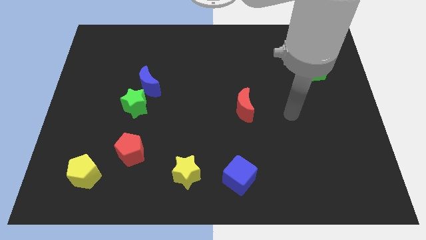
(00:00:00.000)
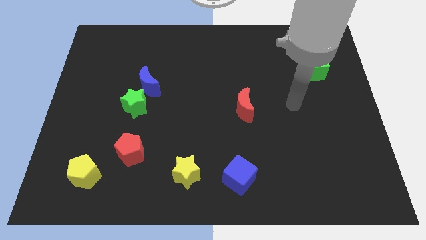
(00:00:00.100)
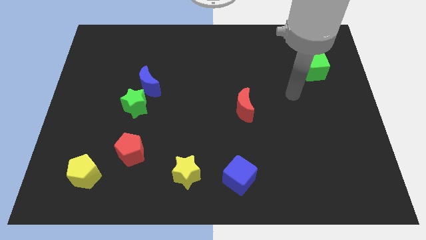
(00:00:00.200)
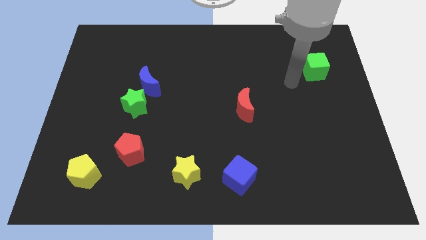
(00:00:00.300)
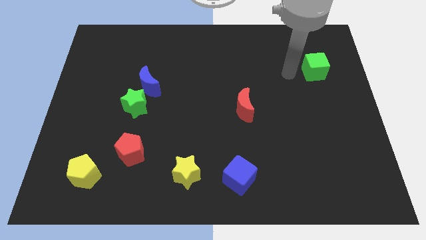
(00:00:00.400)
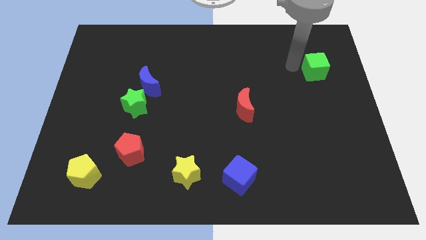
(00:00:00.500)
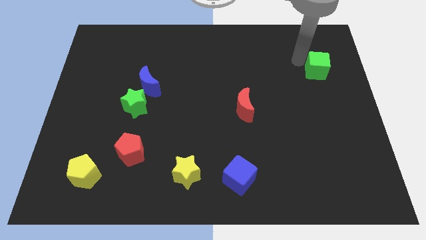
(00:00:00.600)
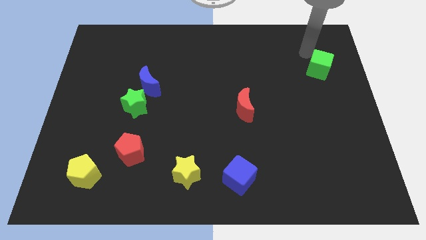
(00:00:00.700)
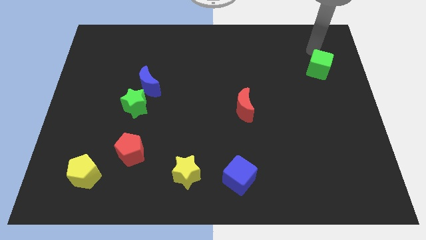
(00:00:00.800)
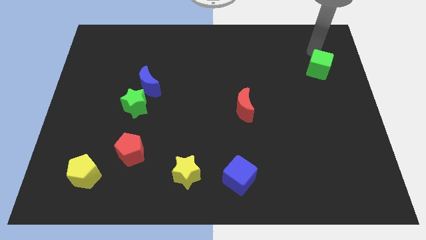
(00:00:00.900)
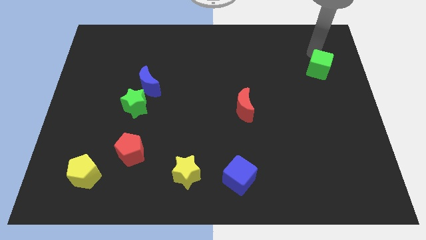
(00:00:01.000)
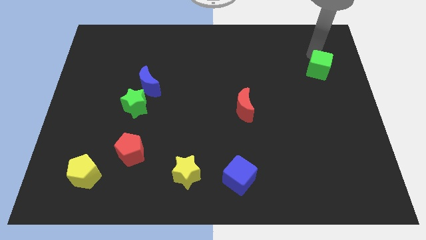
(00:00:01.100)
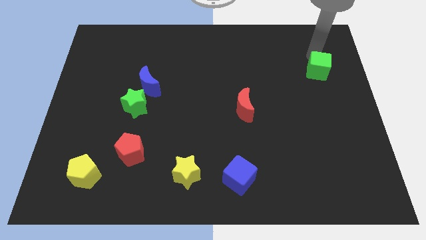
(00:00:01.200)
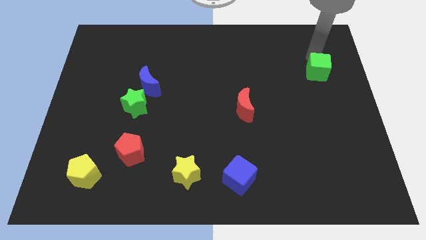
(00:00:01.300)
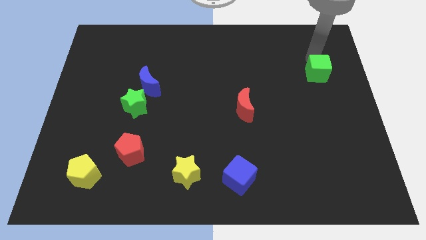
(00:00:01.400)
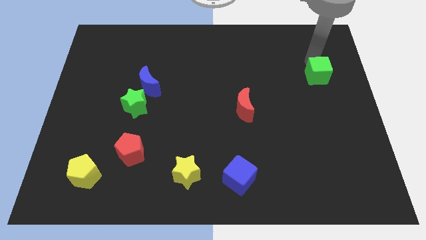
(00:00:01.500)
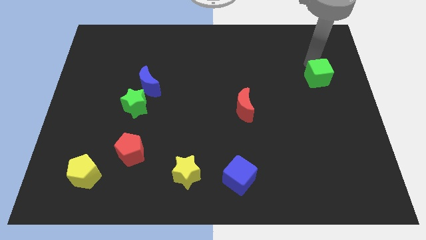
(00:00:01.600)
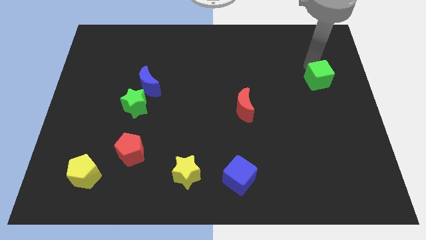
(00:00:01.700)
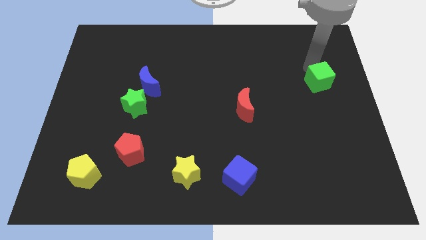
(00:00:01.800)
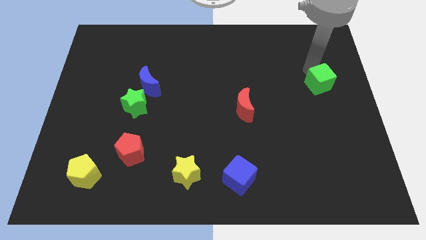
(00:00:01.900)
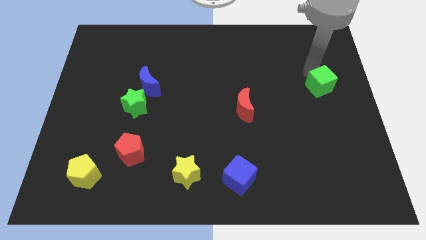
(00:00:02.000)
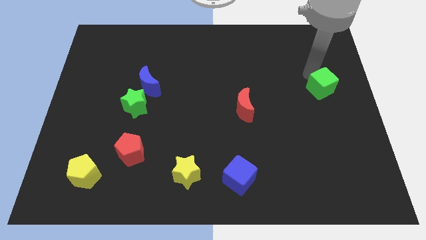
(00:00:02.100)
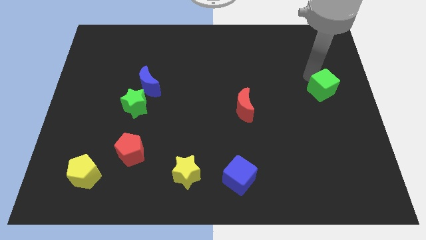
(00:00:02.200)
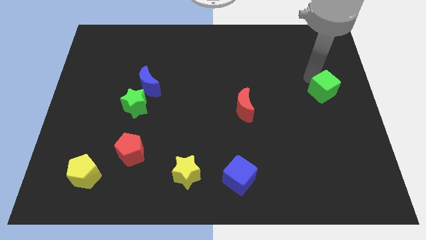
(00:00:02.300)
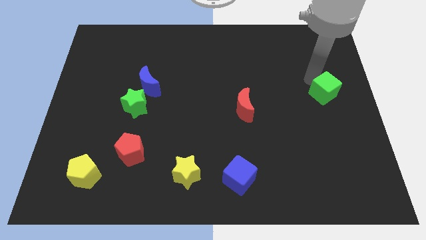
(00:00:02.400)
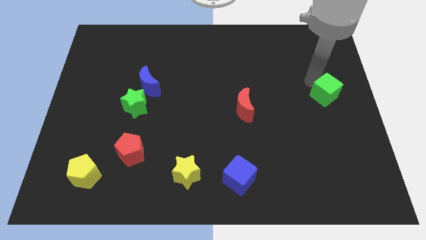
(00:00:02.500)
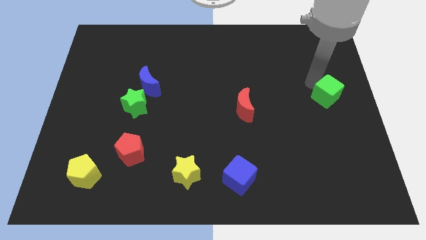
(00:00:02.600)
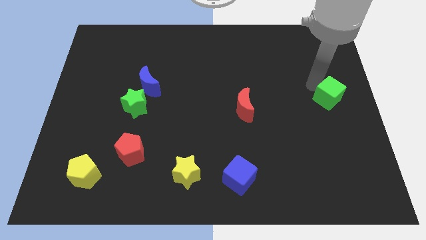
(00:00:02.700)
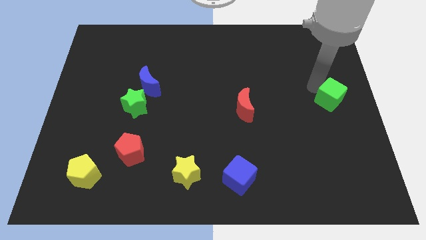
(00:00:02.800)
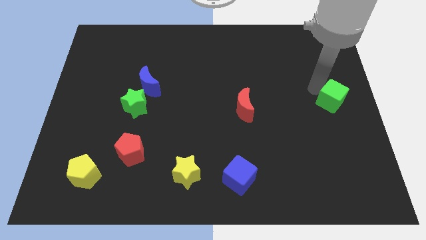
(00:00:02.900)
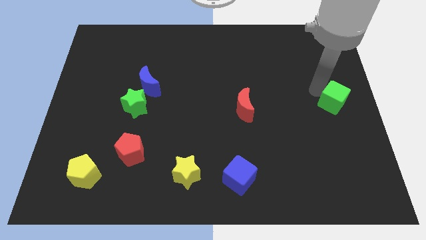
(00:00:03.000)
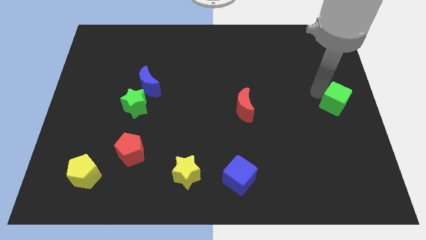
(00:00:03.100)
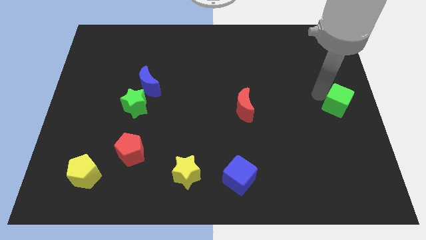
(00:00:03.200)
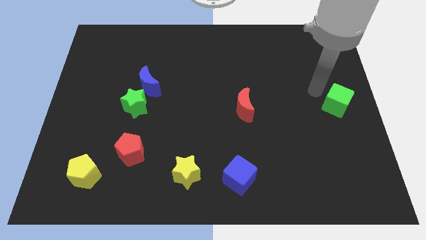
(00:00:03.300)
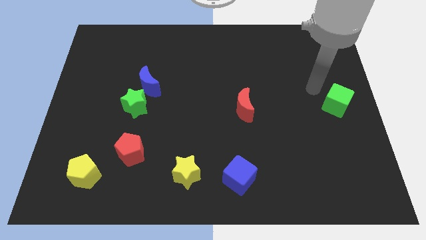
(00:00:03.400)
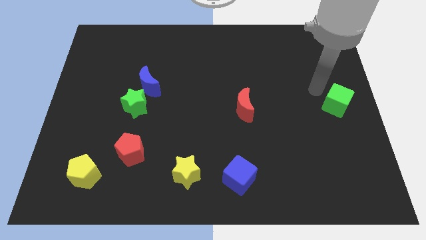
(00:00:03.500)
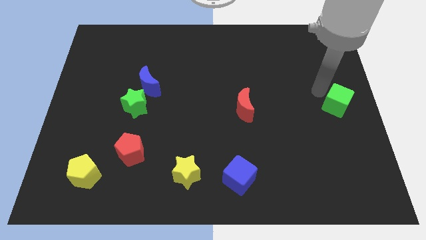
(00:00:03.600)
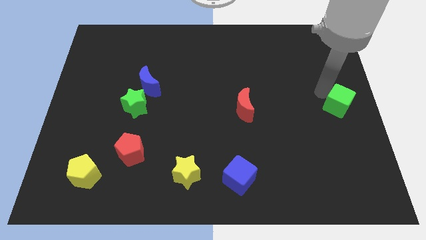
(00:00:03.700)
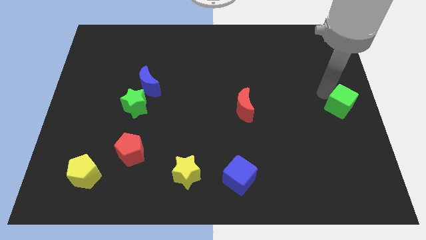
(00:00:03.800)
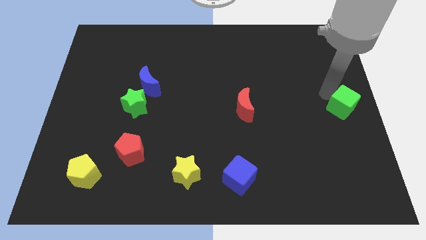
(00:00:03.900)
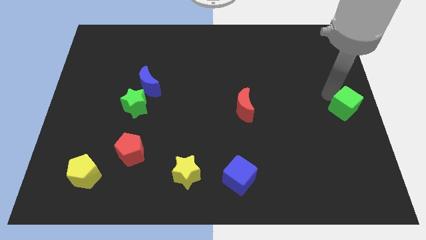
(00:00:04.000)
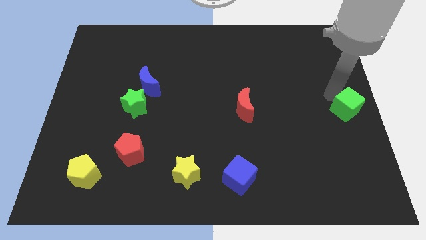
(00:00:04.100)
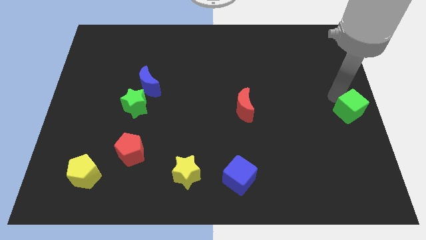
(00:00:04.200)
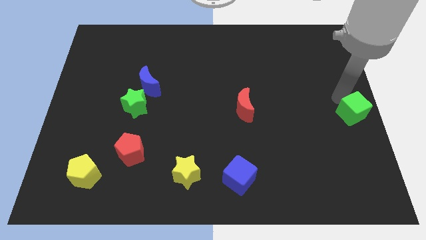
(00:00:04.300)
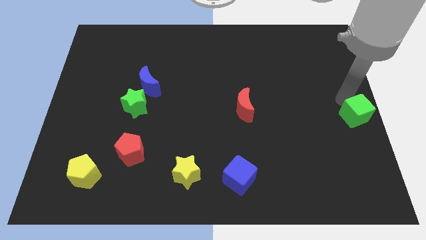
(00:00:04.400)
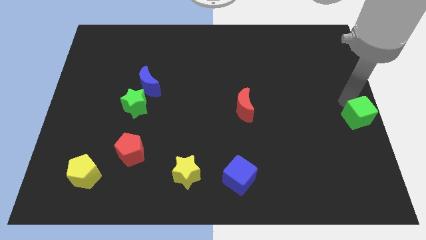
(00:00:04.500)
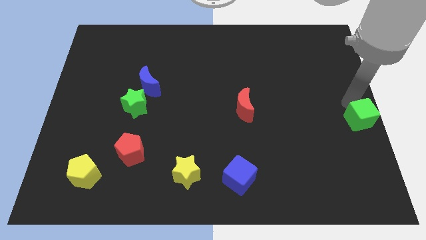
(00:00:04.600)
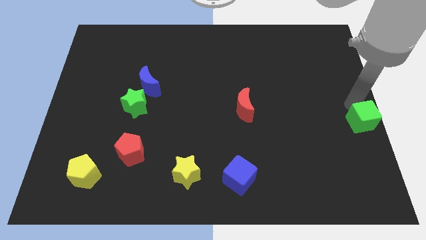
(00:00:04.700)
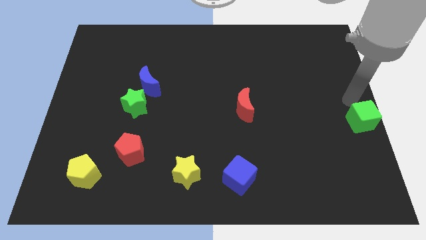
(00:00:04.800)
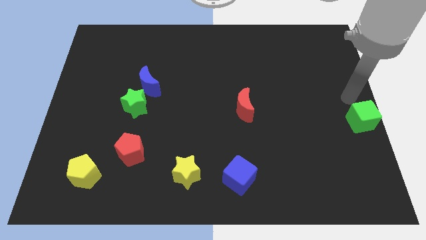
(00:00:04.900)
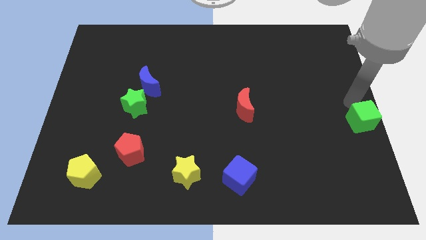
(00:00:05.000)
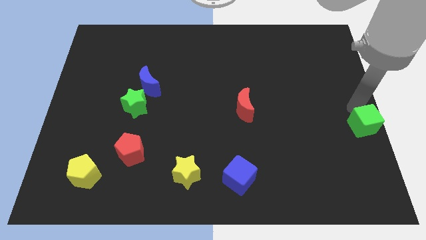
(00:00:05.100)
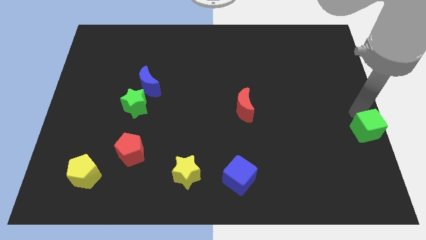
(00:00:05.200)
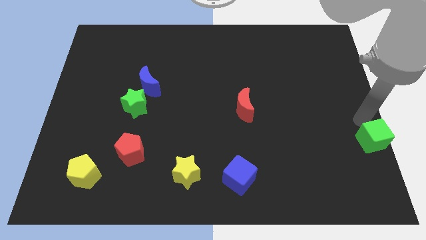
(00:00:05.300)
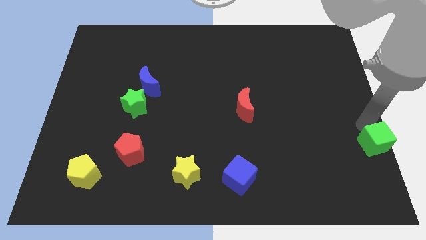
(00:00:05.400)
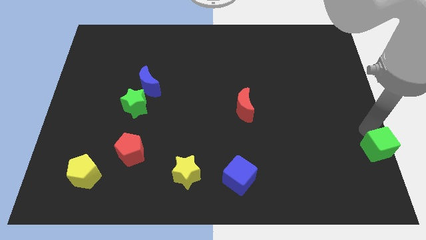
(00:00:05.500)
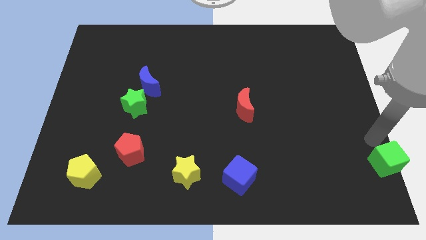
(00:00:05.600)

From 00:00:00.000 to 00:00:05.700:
move the green cube to the bottom right corner

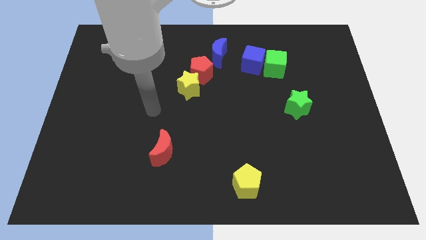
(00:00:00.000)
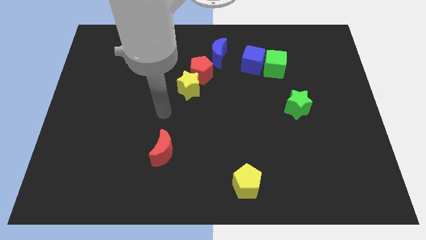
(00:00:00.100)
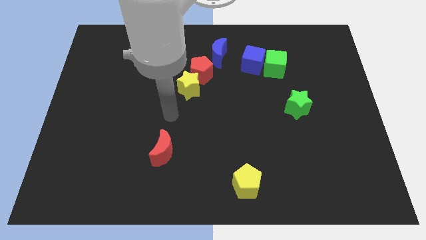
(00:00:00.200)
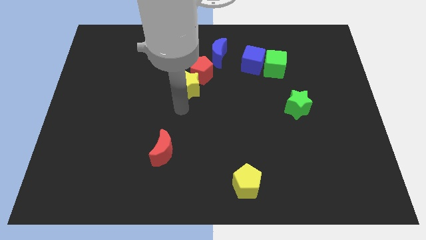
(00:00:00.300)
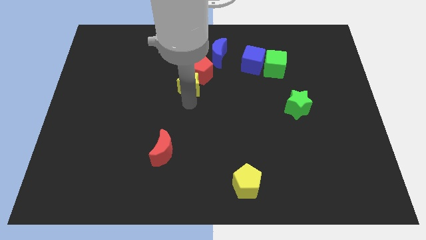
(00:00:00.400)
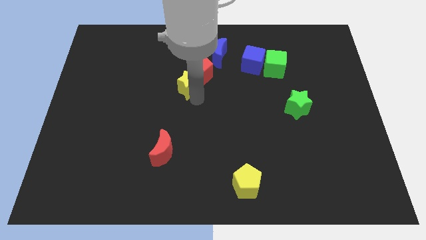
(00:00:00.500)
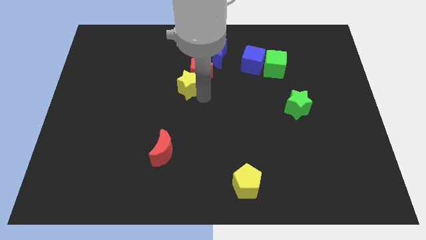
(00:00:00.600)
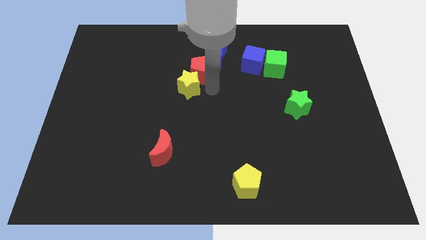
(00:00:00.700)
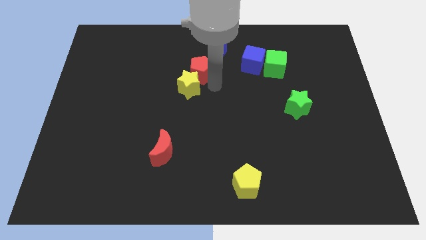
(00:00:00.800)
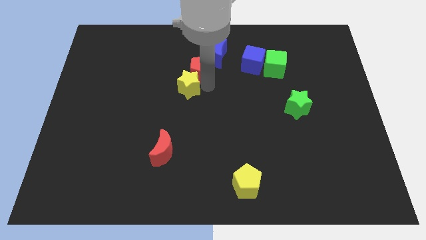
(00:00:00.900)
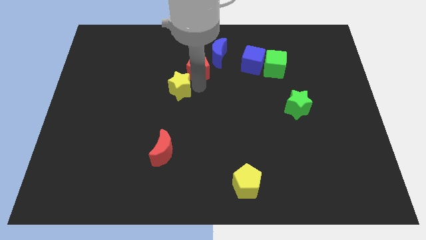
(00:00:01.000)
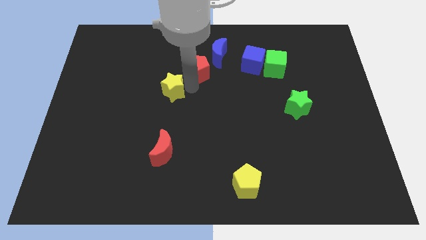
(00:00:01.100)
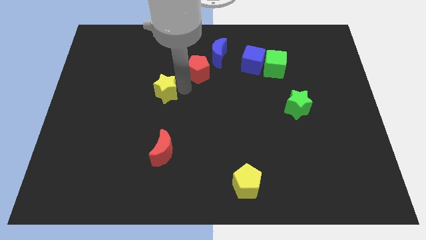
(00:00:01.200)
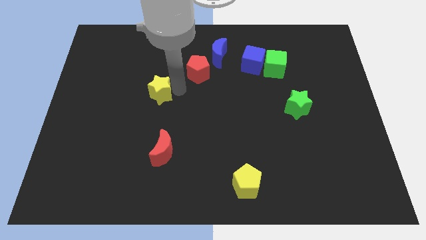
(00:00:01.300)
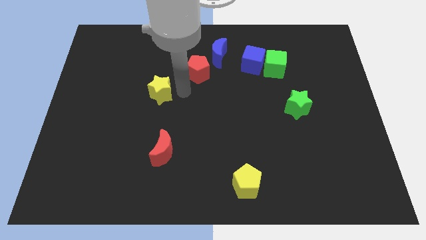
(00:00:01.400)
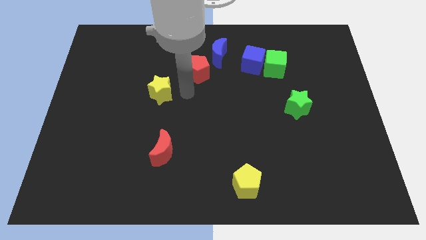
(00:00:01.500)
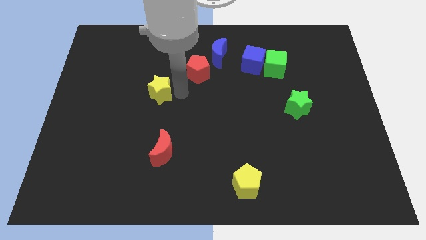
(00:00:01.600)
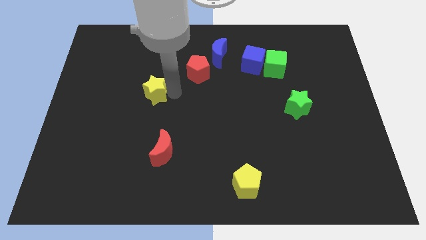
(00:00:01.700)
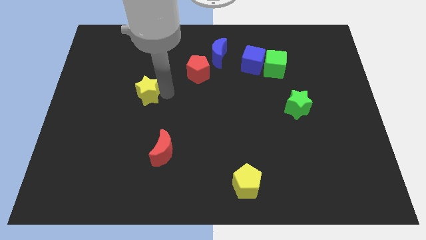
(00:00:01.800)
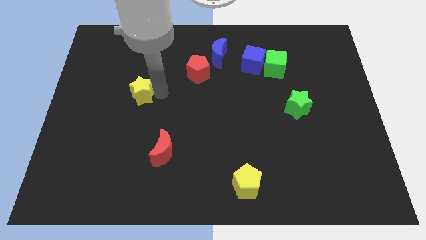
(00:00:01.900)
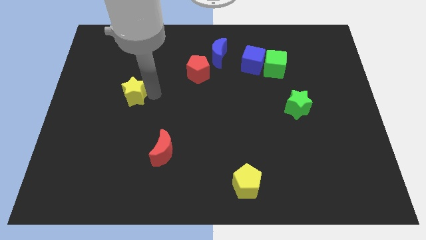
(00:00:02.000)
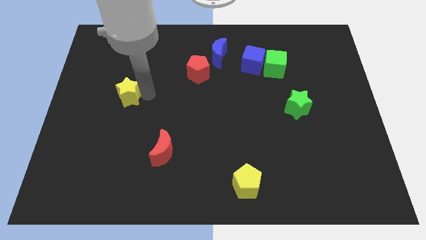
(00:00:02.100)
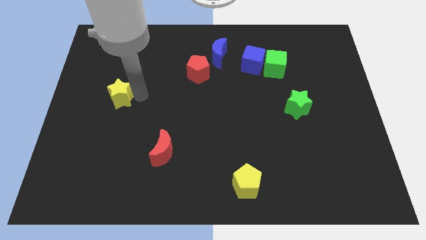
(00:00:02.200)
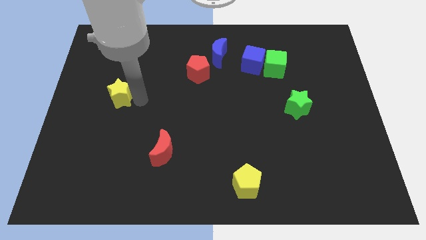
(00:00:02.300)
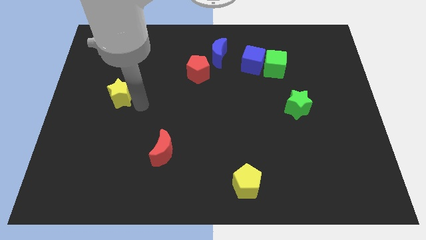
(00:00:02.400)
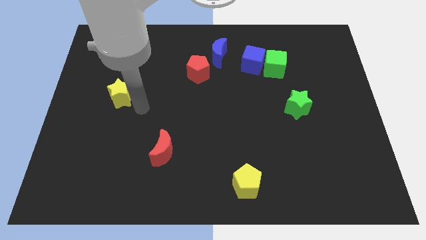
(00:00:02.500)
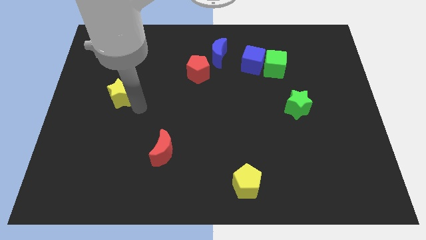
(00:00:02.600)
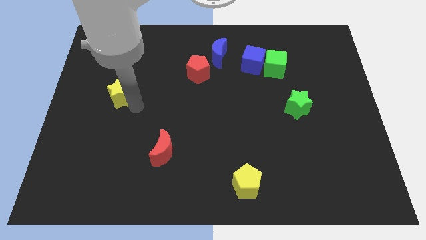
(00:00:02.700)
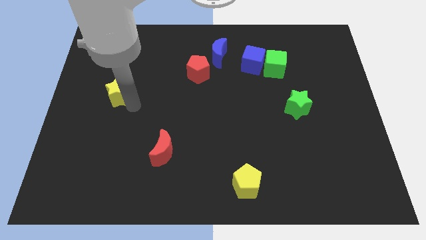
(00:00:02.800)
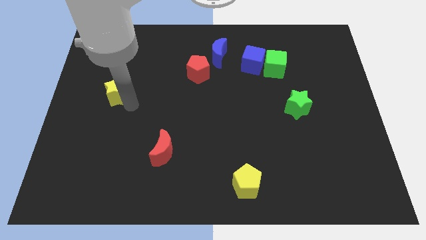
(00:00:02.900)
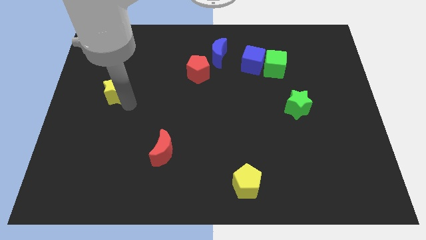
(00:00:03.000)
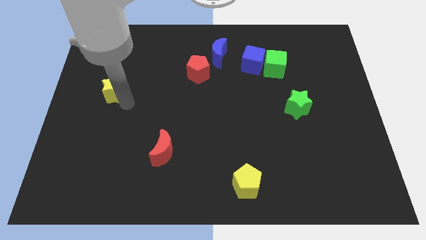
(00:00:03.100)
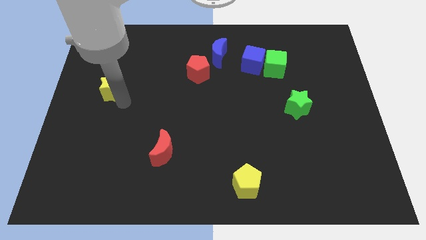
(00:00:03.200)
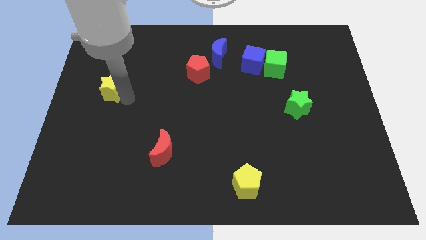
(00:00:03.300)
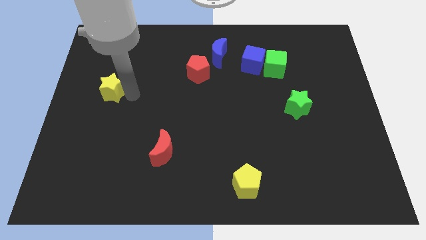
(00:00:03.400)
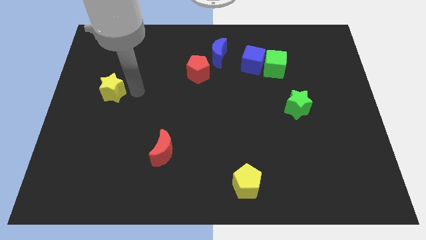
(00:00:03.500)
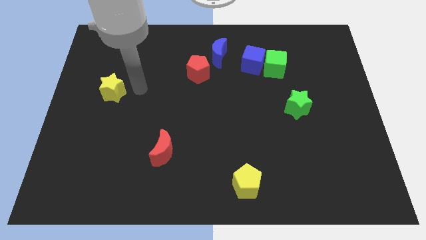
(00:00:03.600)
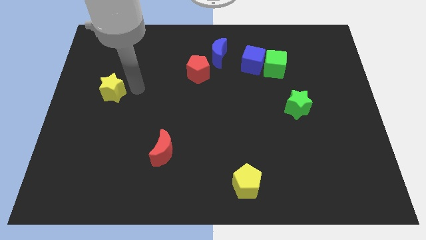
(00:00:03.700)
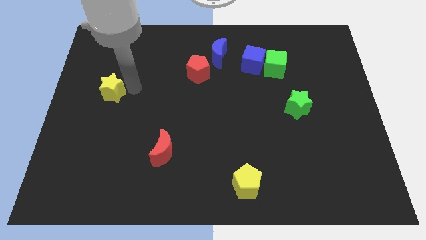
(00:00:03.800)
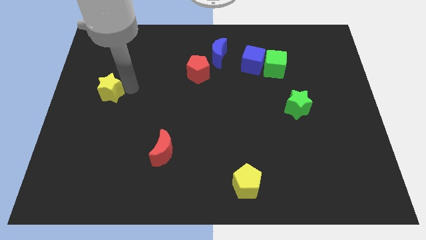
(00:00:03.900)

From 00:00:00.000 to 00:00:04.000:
move the yellow star to the left side
